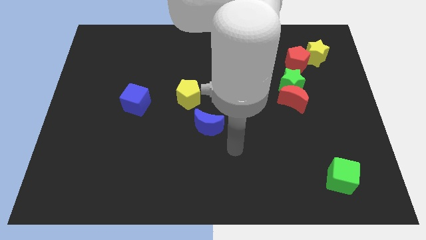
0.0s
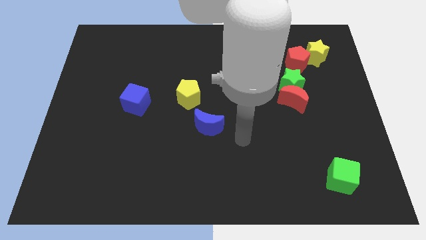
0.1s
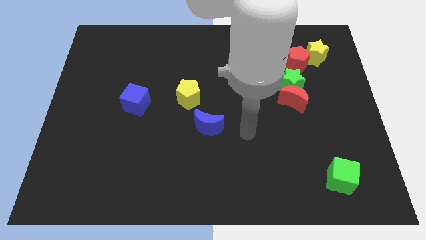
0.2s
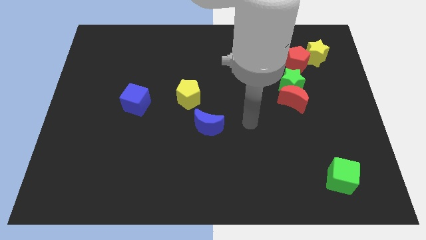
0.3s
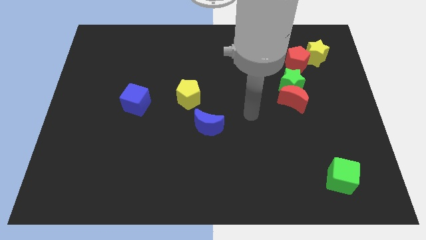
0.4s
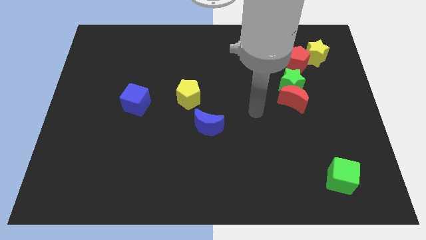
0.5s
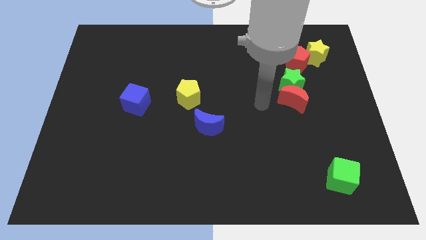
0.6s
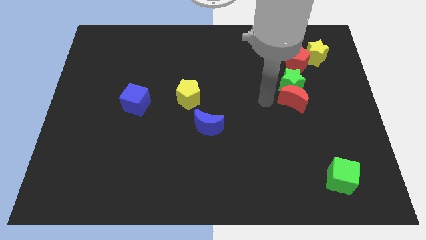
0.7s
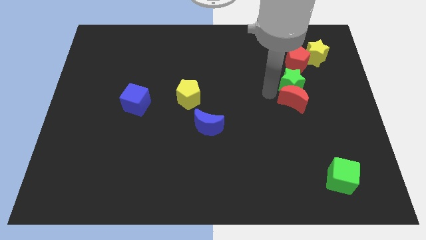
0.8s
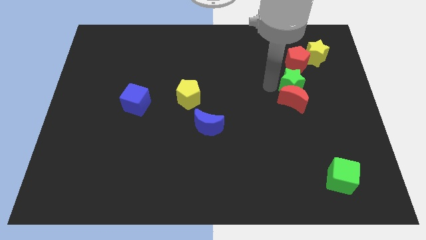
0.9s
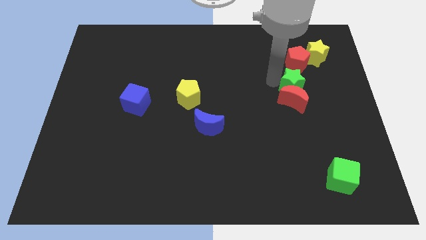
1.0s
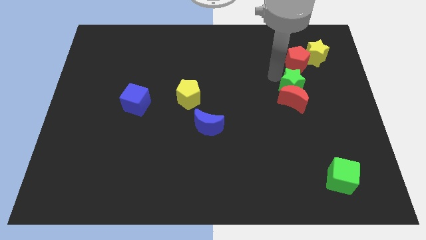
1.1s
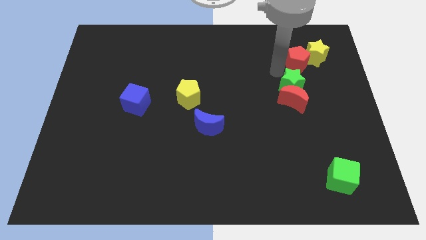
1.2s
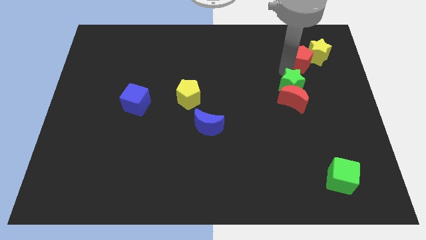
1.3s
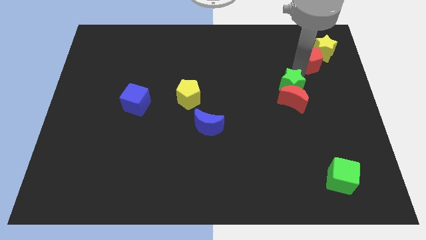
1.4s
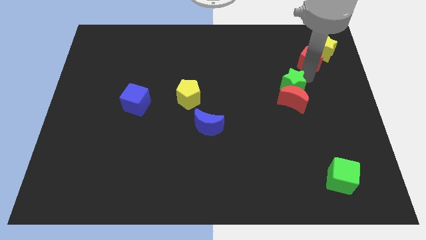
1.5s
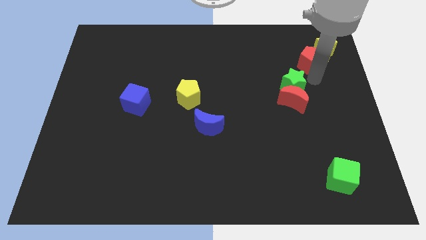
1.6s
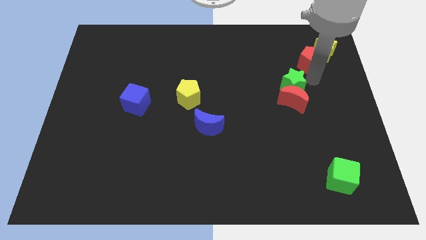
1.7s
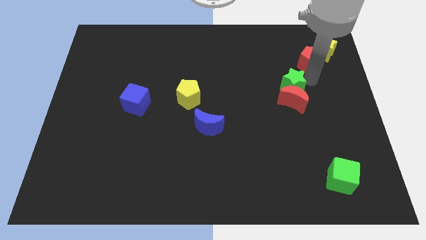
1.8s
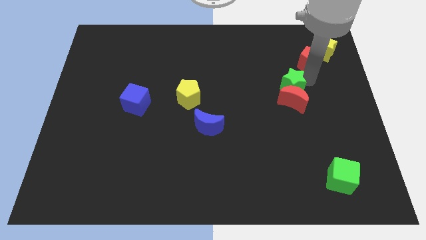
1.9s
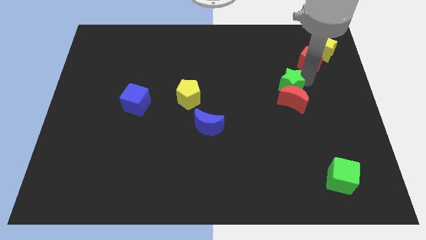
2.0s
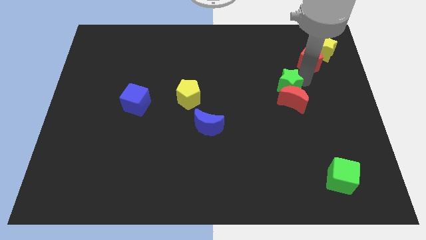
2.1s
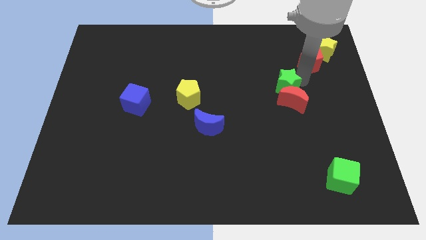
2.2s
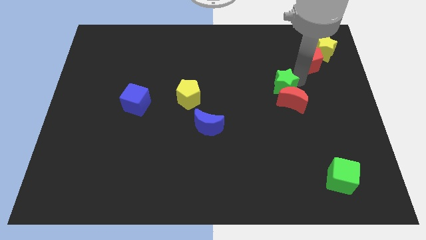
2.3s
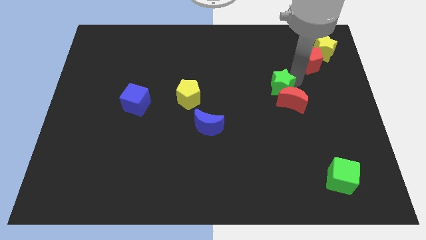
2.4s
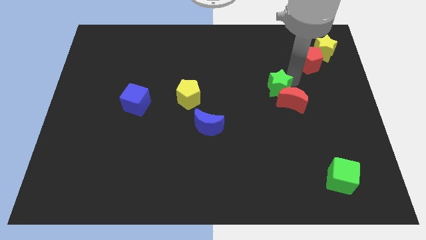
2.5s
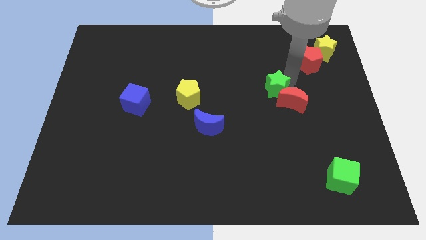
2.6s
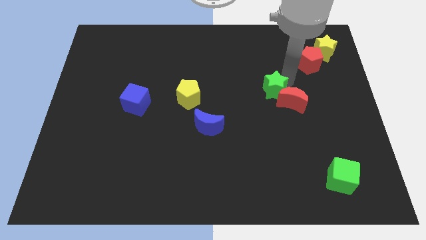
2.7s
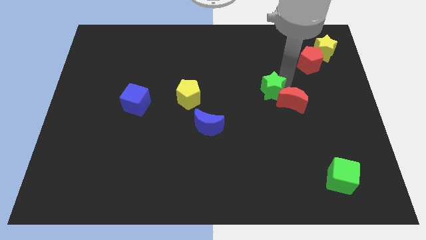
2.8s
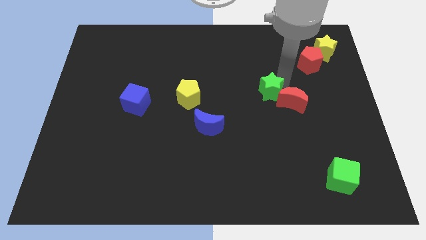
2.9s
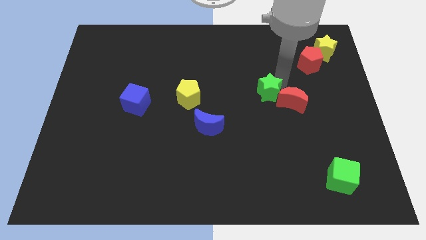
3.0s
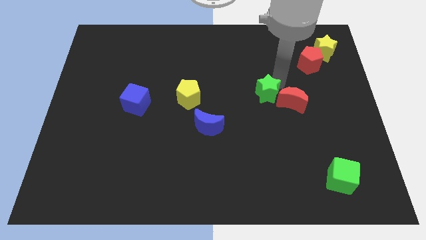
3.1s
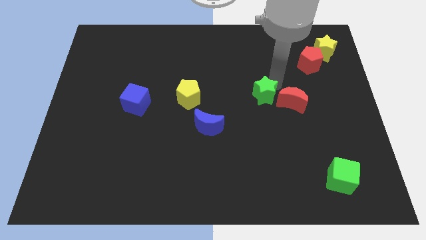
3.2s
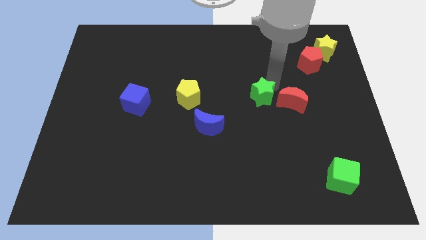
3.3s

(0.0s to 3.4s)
push the green star slightly downwards and left diagonally

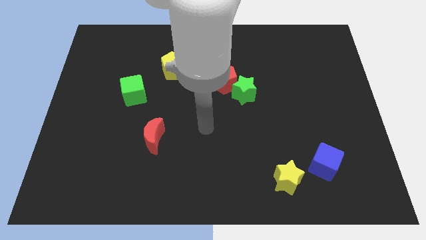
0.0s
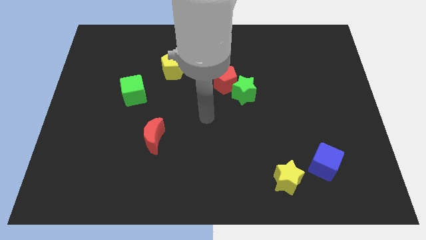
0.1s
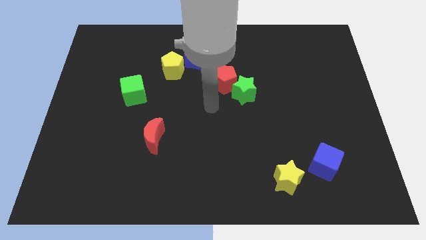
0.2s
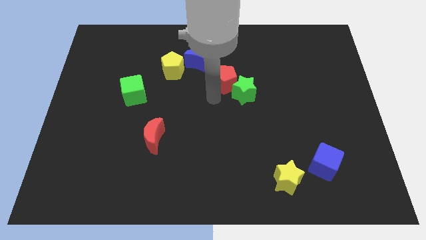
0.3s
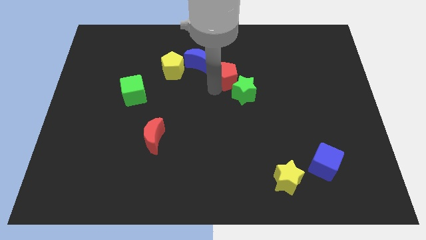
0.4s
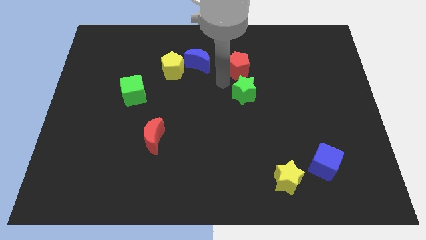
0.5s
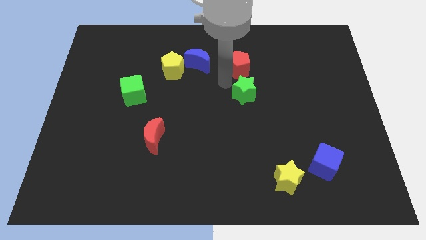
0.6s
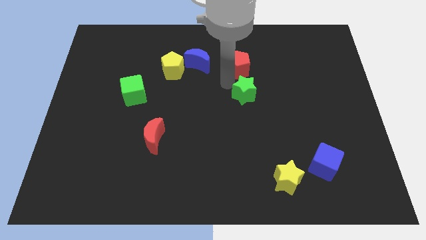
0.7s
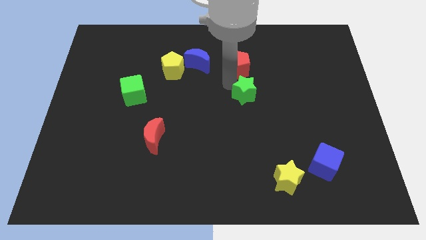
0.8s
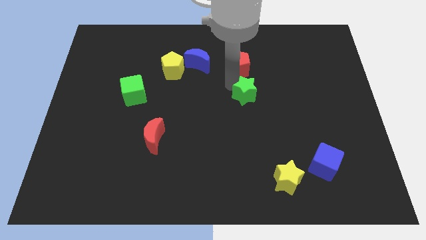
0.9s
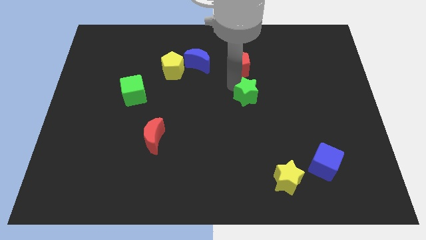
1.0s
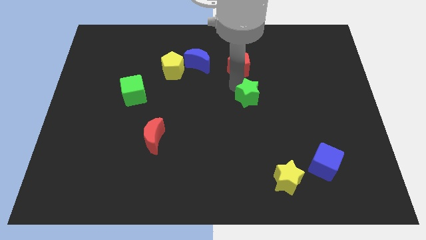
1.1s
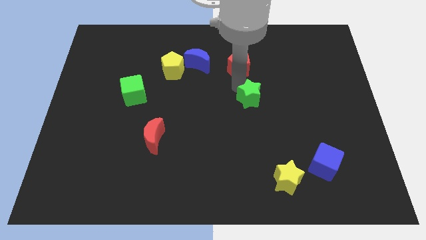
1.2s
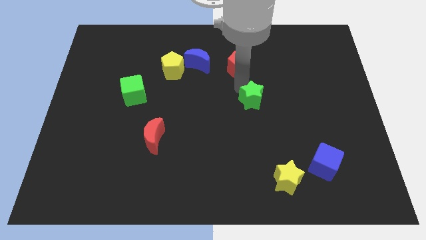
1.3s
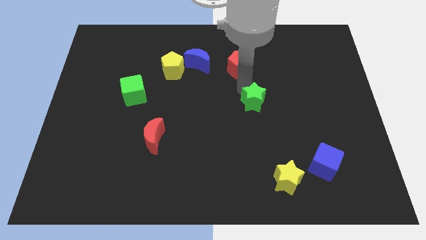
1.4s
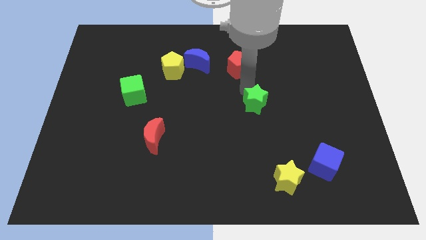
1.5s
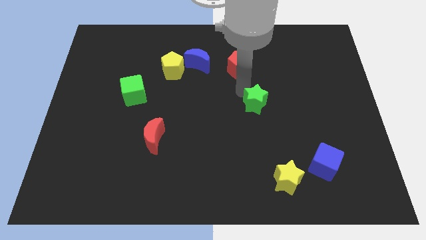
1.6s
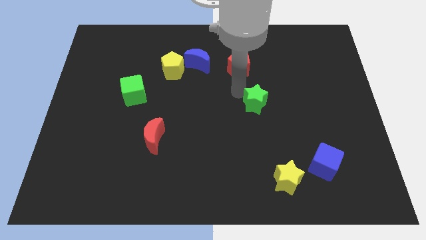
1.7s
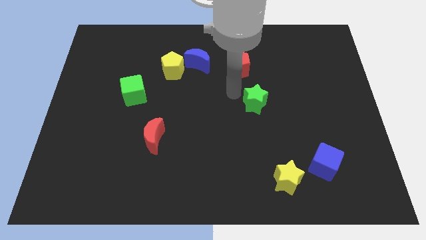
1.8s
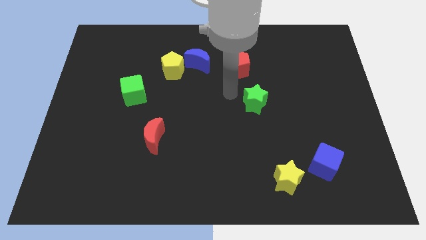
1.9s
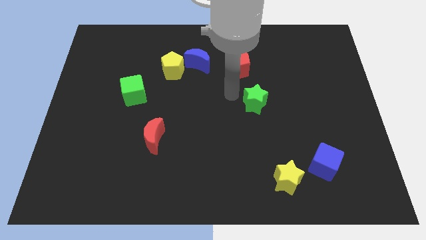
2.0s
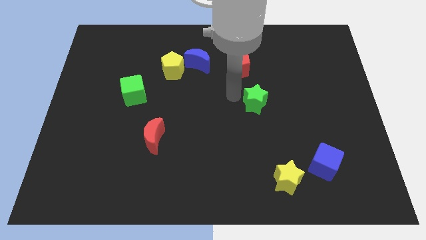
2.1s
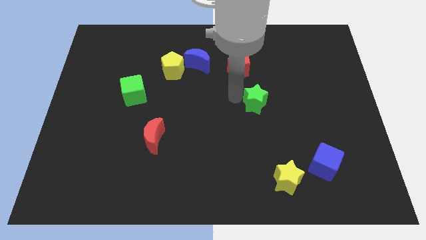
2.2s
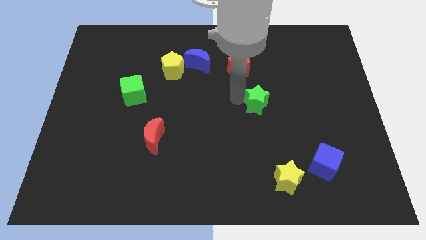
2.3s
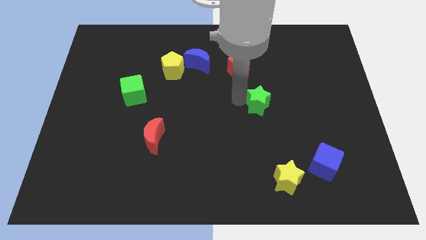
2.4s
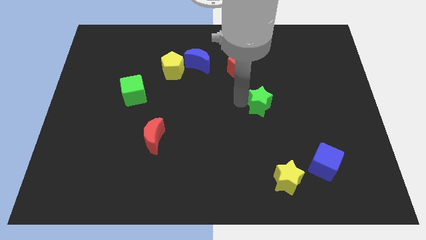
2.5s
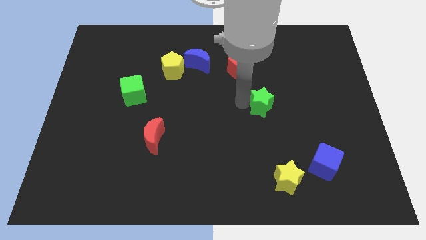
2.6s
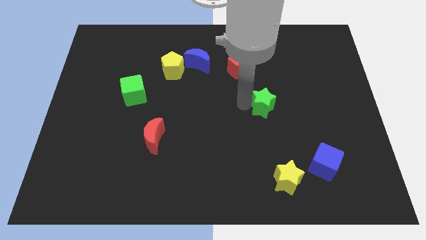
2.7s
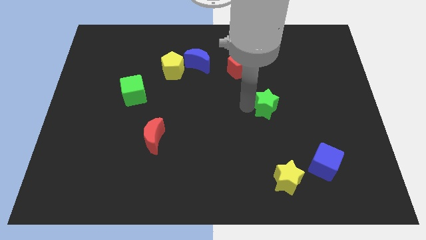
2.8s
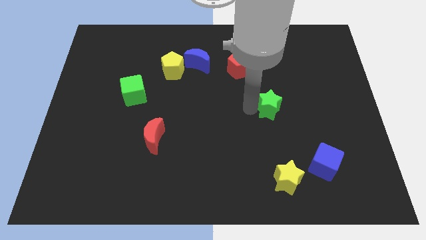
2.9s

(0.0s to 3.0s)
slide the green star a little down and then right

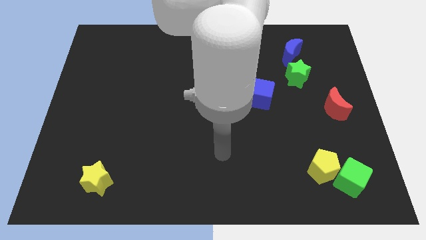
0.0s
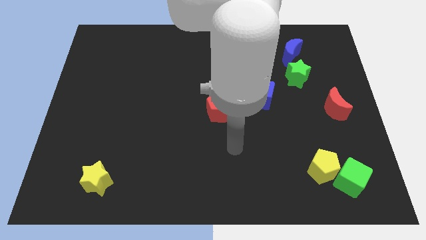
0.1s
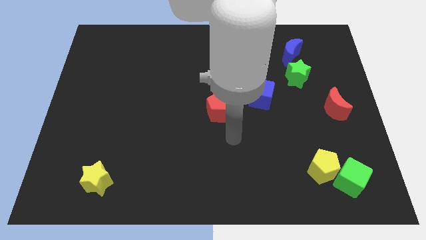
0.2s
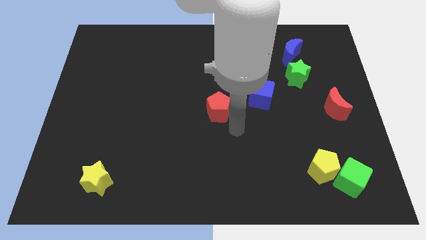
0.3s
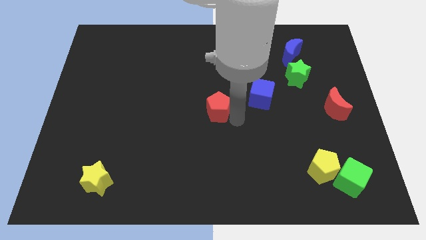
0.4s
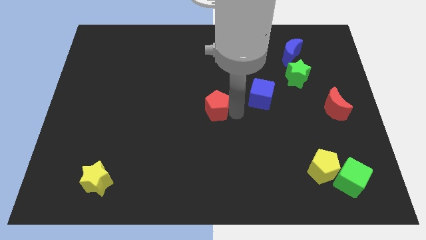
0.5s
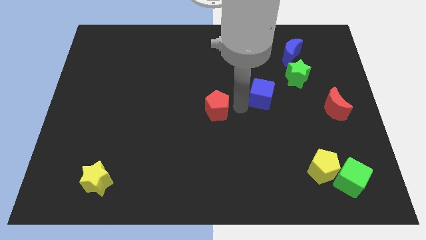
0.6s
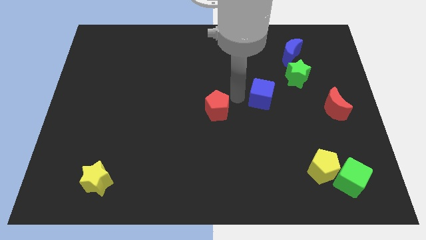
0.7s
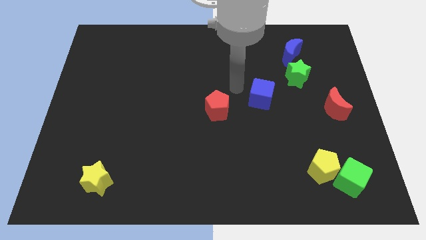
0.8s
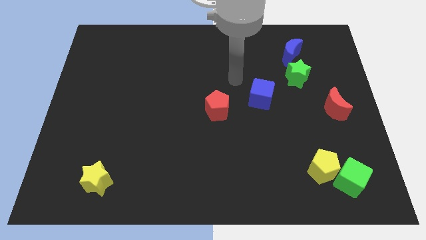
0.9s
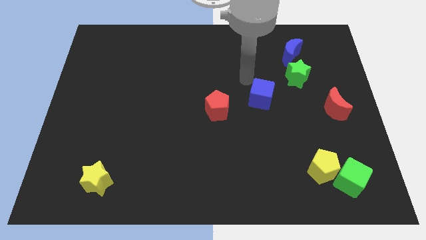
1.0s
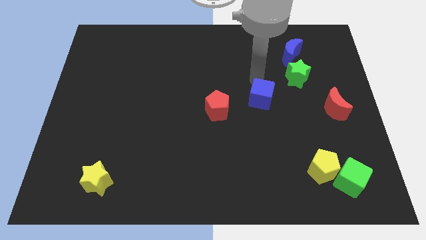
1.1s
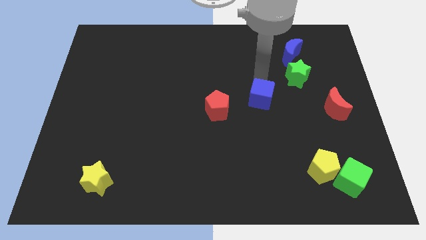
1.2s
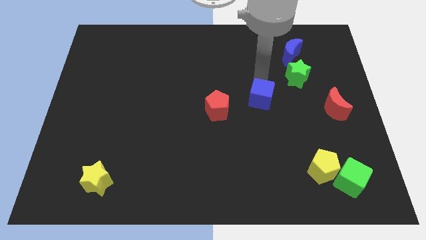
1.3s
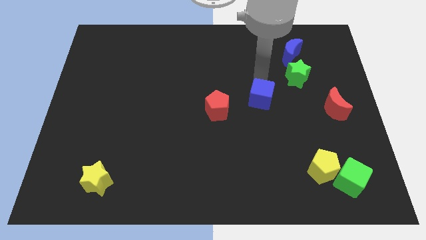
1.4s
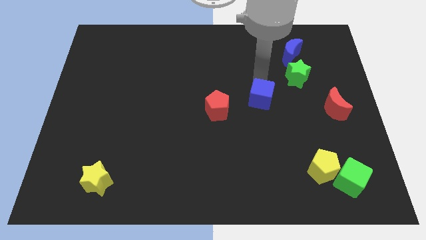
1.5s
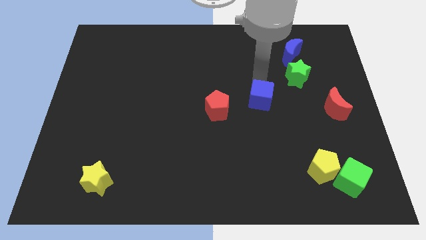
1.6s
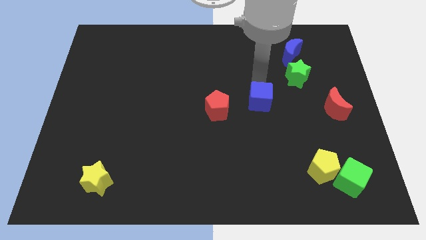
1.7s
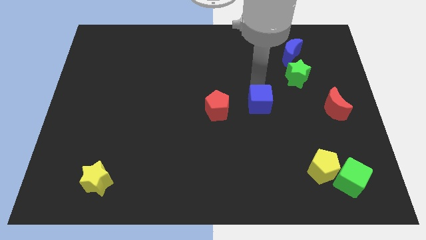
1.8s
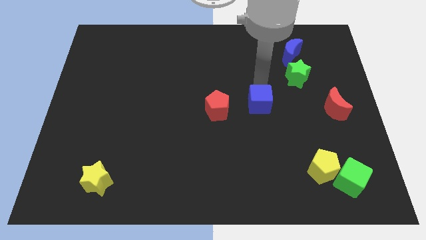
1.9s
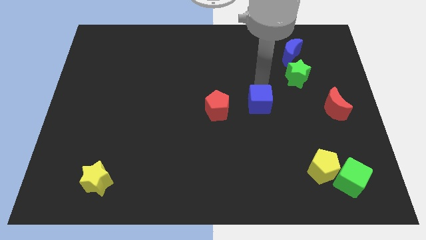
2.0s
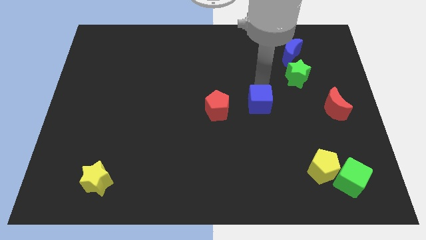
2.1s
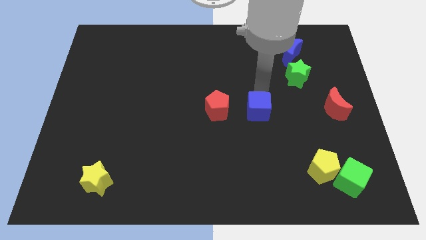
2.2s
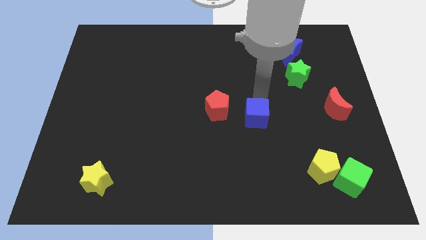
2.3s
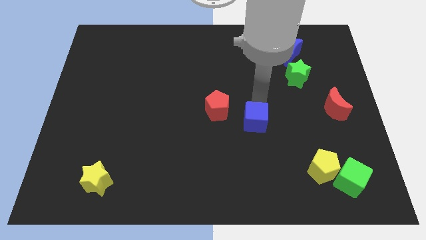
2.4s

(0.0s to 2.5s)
slide the blue cube a bit downwards
